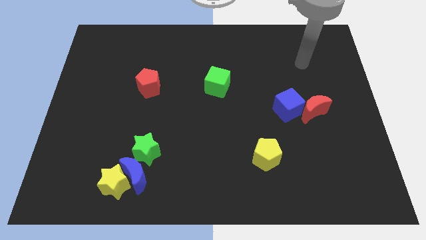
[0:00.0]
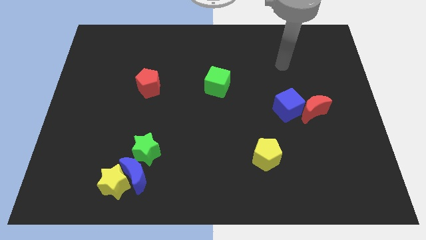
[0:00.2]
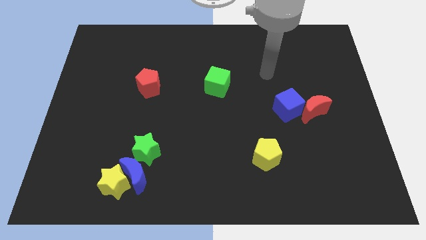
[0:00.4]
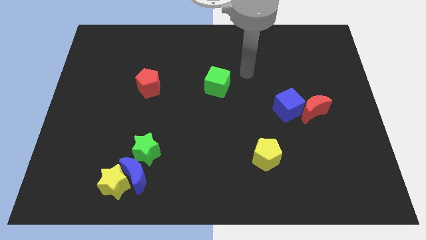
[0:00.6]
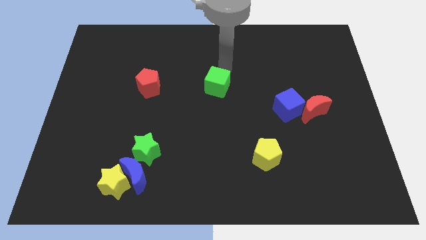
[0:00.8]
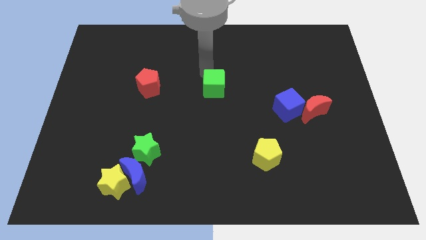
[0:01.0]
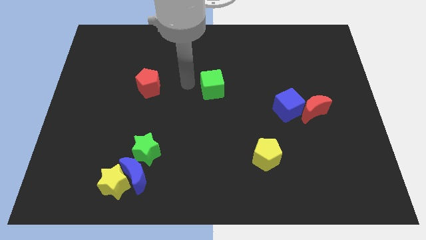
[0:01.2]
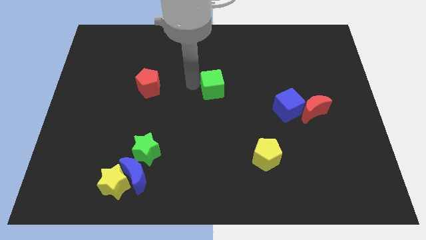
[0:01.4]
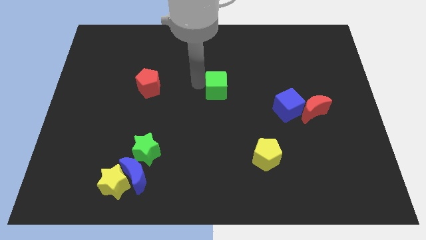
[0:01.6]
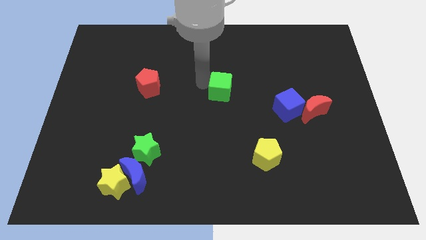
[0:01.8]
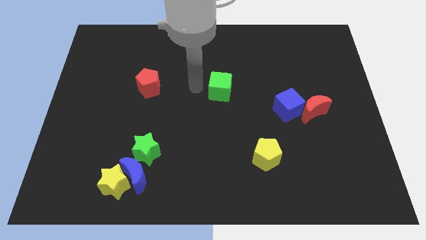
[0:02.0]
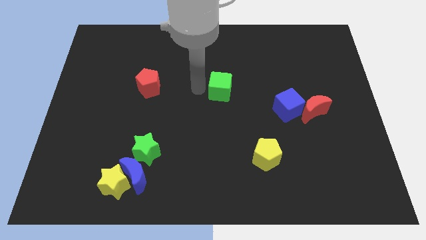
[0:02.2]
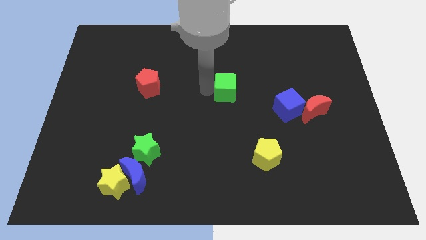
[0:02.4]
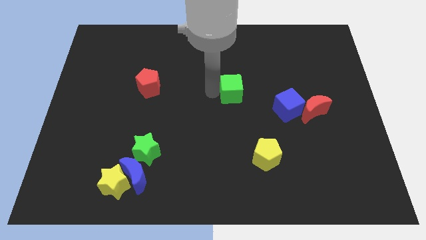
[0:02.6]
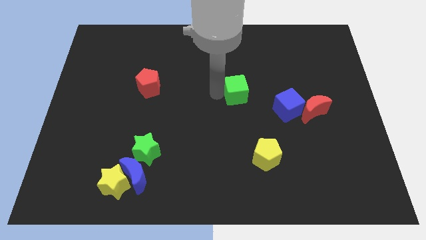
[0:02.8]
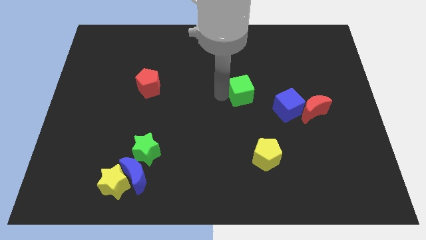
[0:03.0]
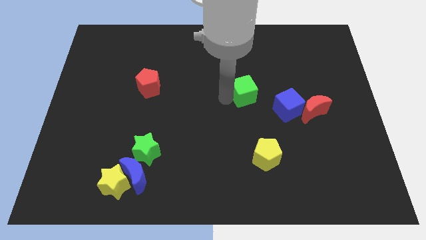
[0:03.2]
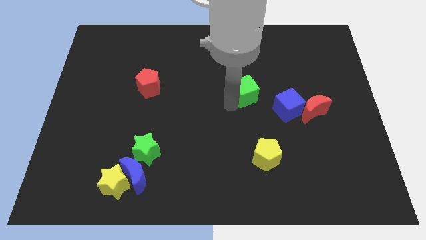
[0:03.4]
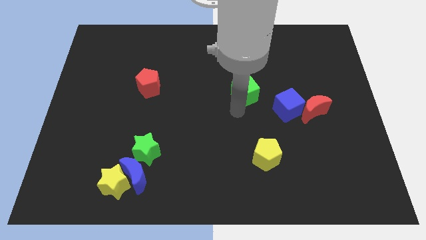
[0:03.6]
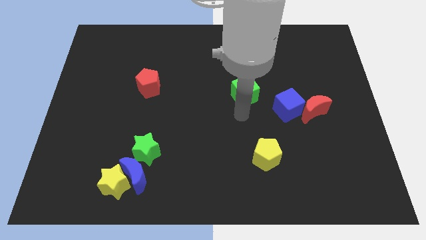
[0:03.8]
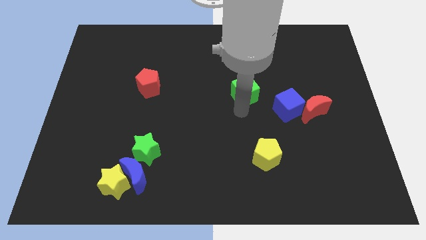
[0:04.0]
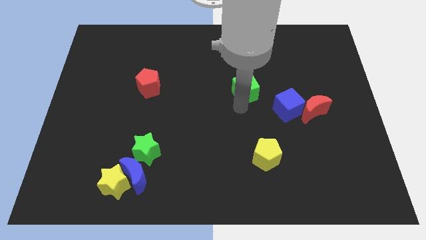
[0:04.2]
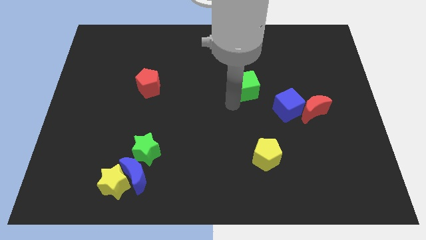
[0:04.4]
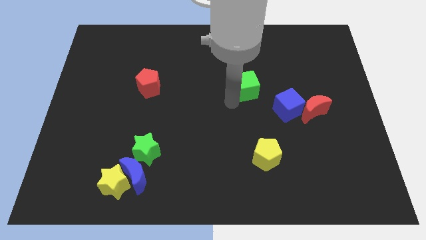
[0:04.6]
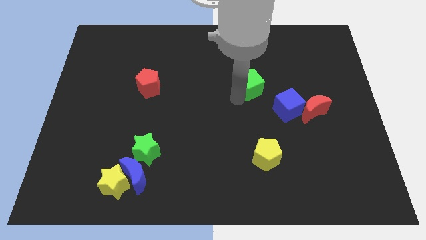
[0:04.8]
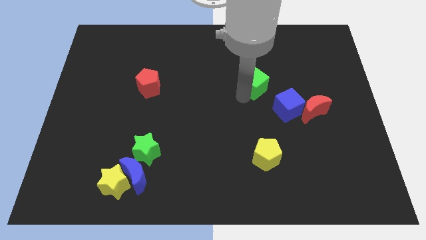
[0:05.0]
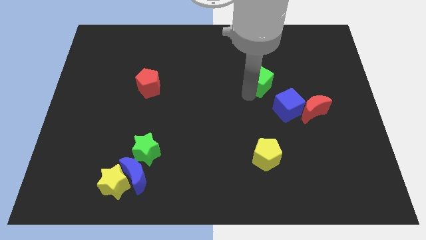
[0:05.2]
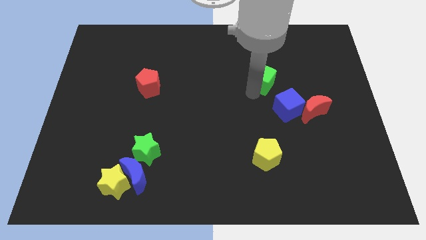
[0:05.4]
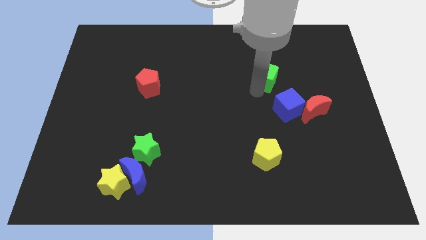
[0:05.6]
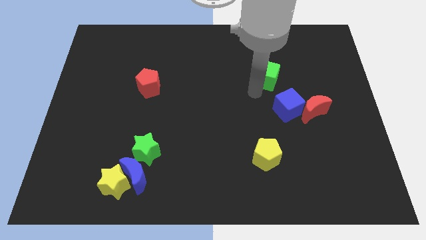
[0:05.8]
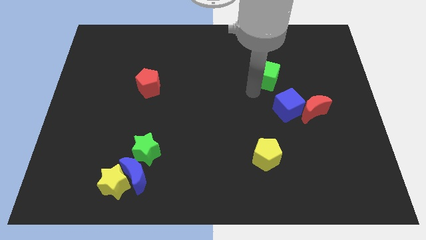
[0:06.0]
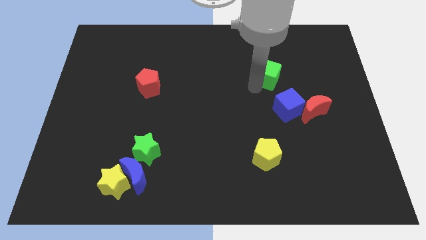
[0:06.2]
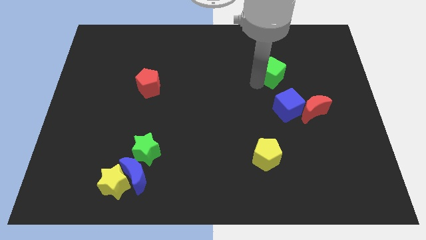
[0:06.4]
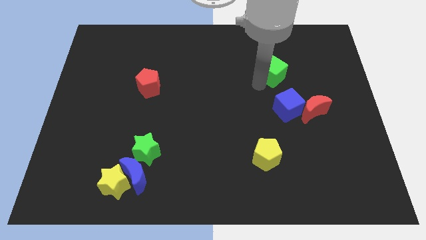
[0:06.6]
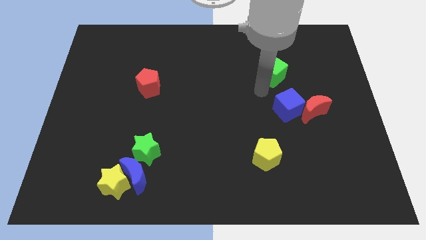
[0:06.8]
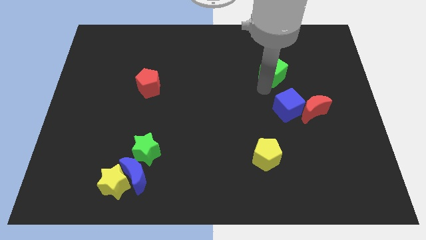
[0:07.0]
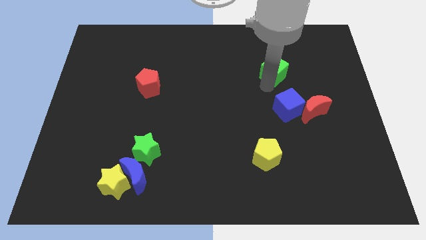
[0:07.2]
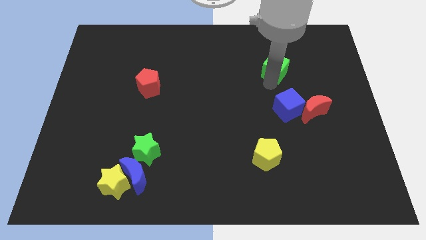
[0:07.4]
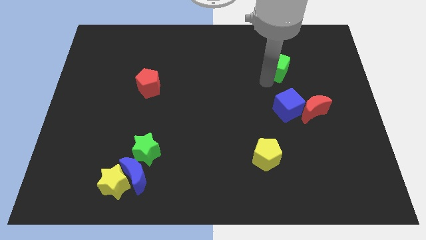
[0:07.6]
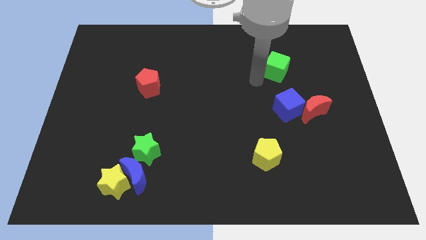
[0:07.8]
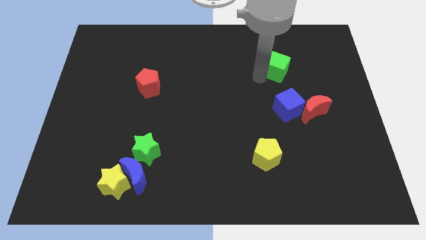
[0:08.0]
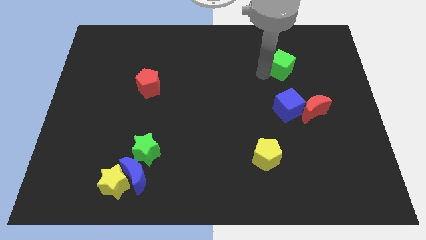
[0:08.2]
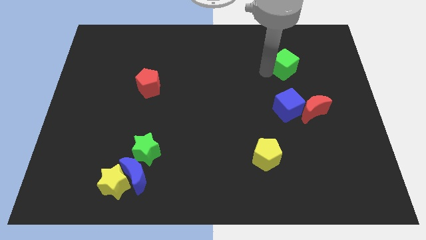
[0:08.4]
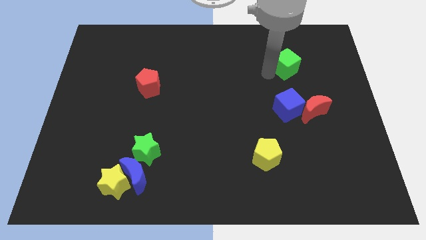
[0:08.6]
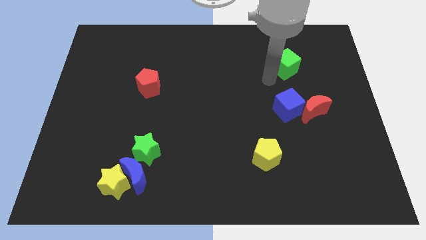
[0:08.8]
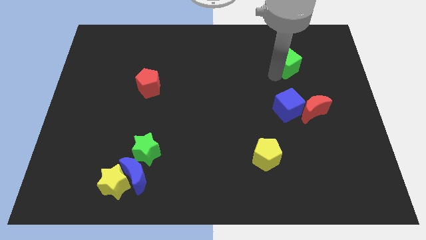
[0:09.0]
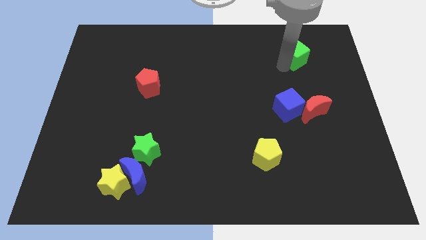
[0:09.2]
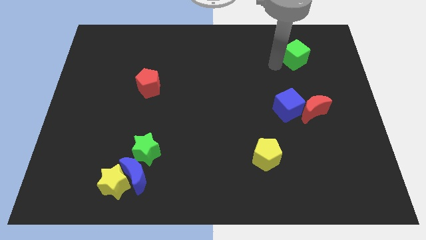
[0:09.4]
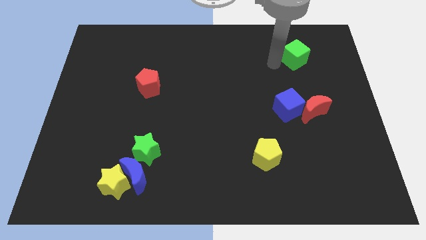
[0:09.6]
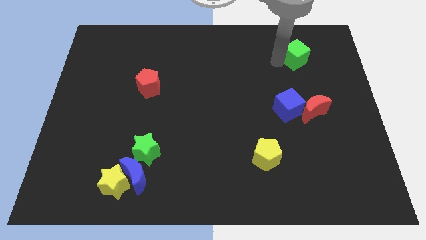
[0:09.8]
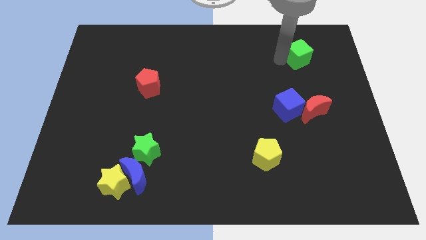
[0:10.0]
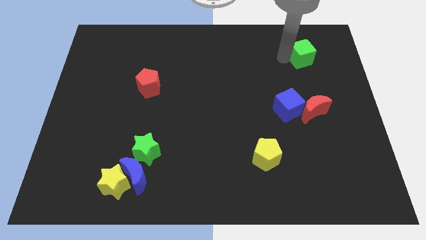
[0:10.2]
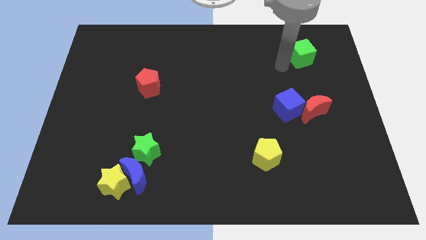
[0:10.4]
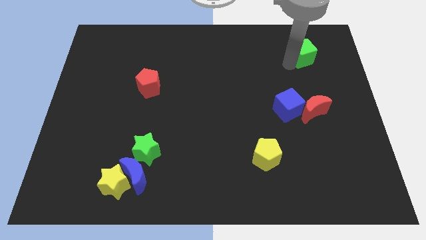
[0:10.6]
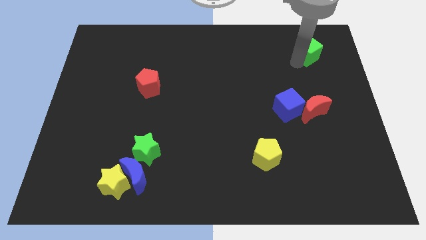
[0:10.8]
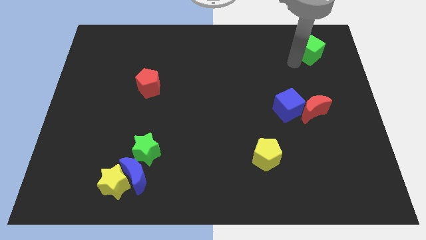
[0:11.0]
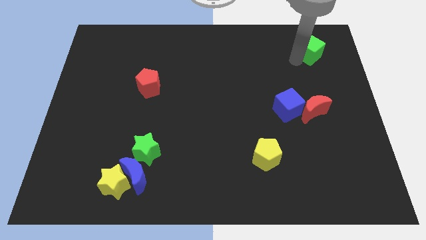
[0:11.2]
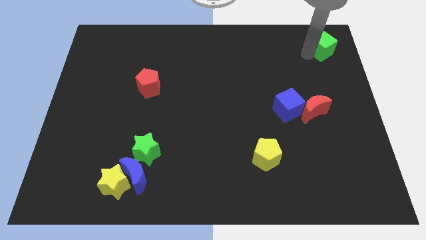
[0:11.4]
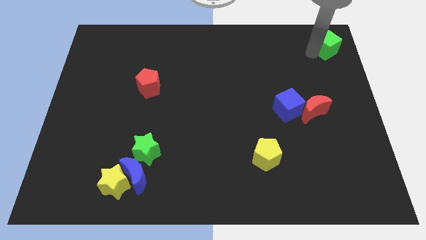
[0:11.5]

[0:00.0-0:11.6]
push the green cube to the top right
